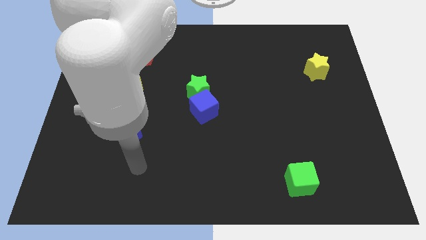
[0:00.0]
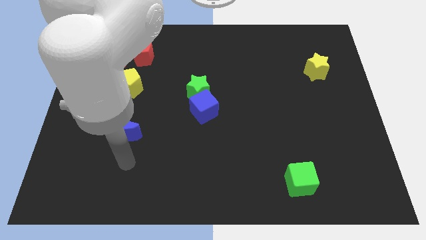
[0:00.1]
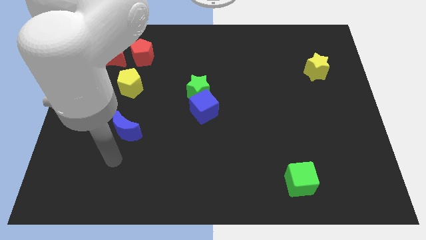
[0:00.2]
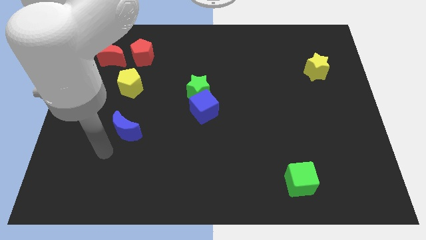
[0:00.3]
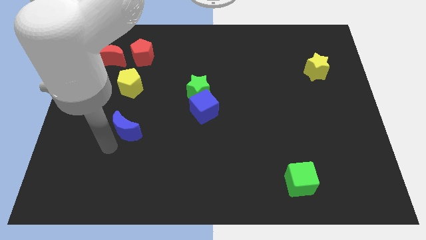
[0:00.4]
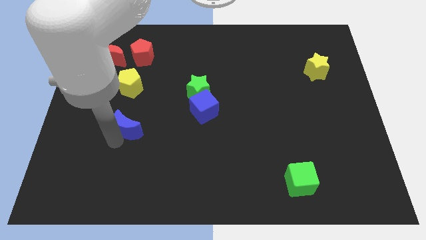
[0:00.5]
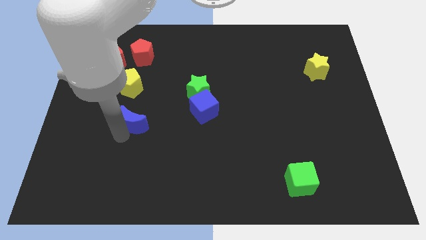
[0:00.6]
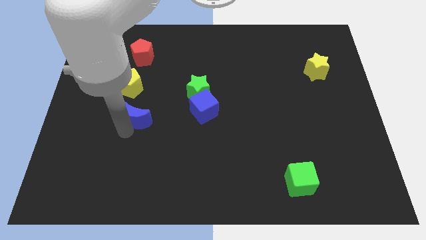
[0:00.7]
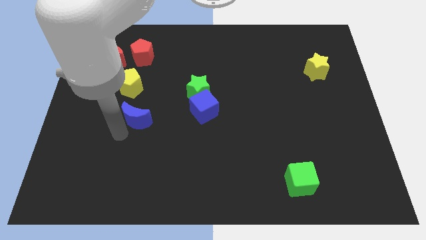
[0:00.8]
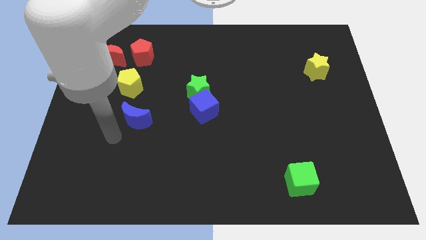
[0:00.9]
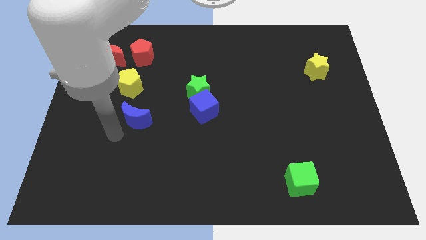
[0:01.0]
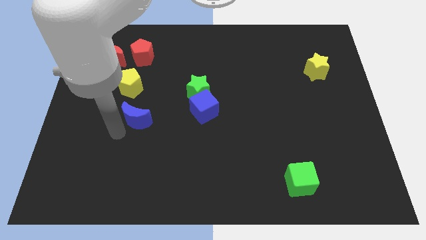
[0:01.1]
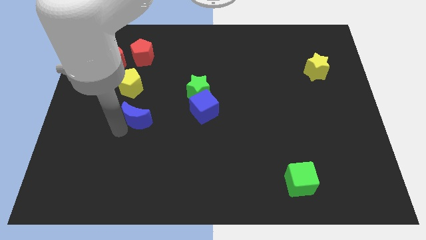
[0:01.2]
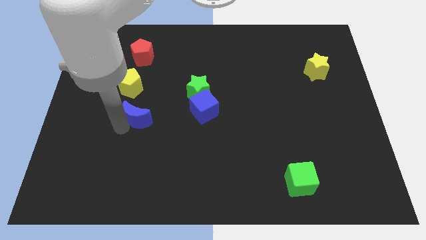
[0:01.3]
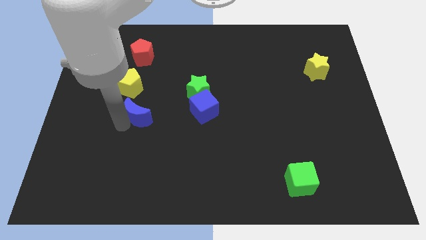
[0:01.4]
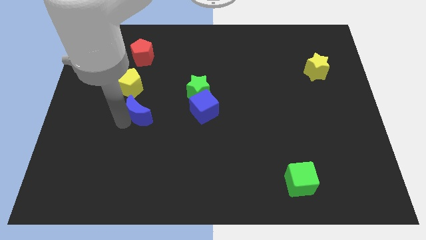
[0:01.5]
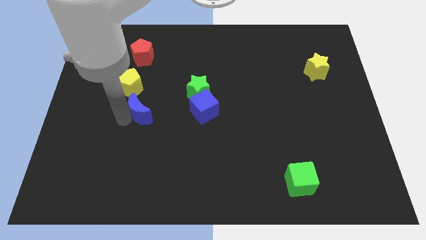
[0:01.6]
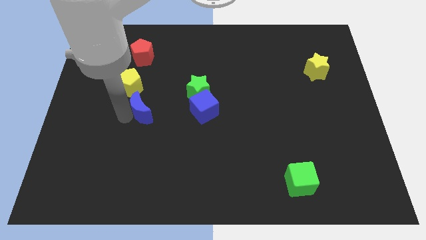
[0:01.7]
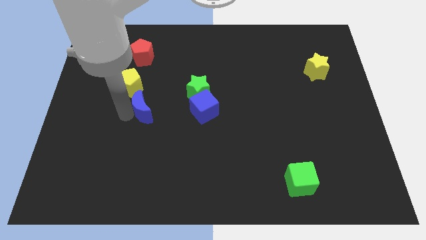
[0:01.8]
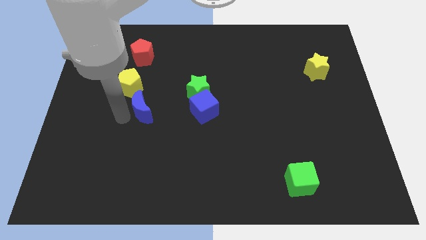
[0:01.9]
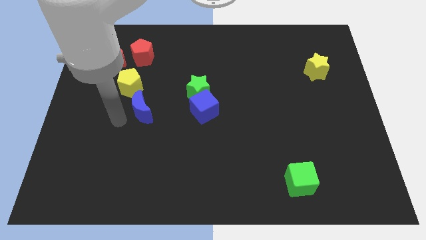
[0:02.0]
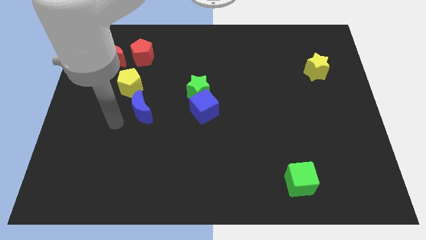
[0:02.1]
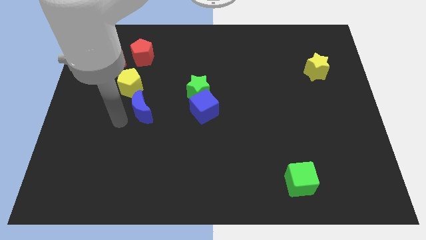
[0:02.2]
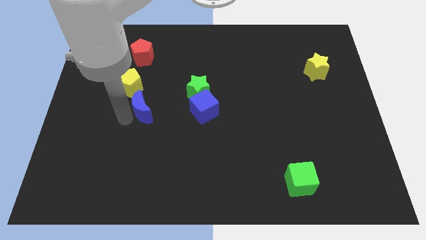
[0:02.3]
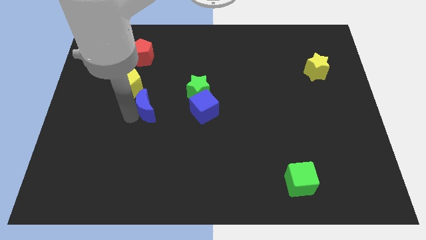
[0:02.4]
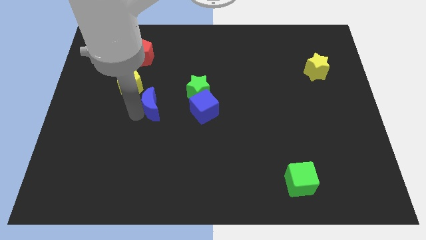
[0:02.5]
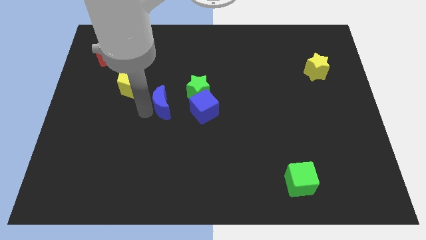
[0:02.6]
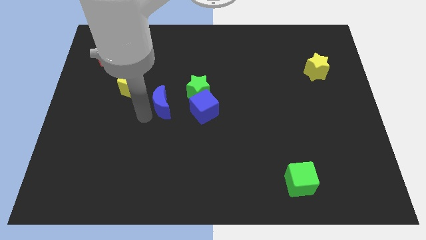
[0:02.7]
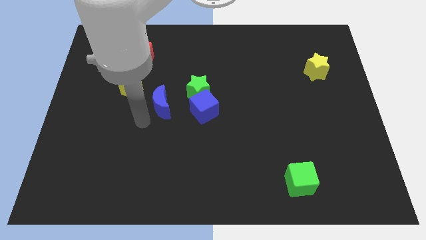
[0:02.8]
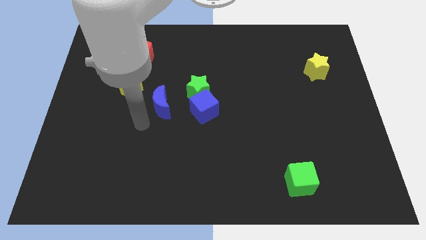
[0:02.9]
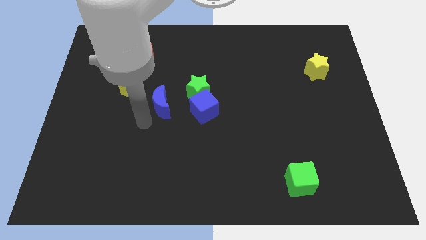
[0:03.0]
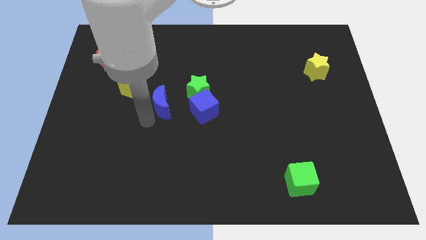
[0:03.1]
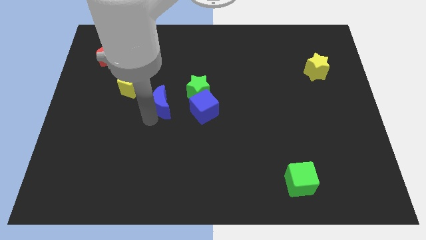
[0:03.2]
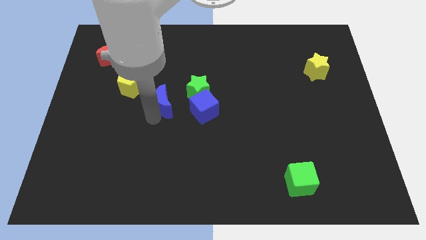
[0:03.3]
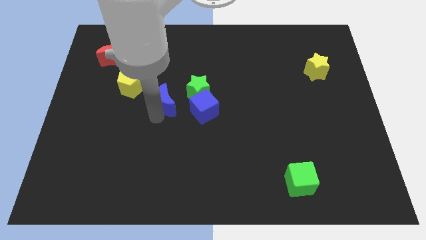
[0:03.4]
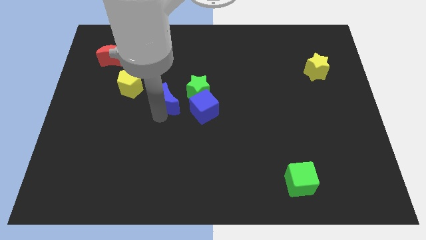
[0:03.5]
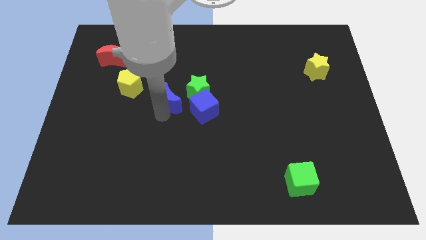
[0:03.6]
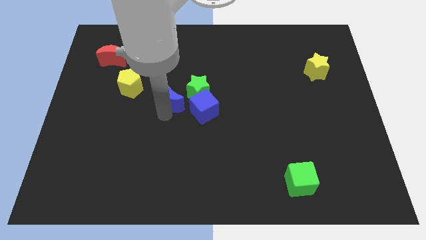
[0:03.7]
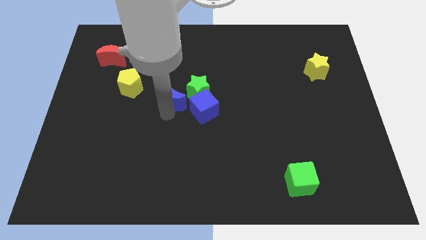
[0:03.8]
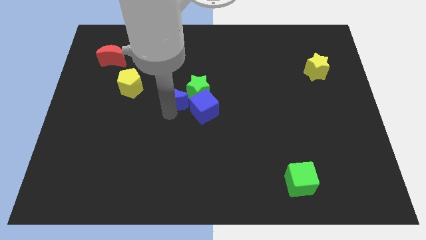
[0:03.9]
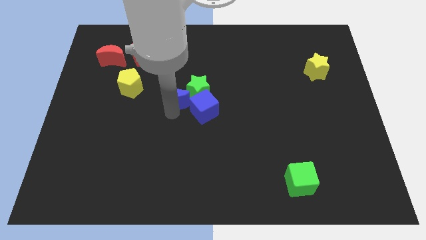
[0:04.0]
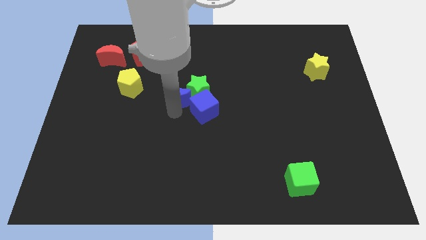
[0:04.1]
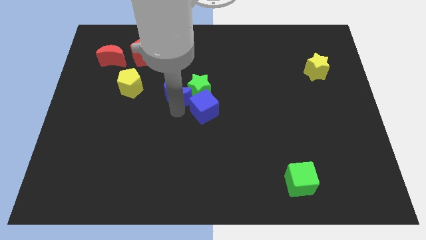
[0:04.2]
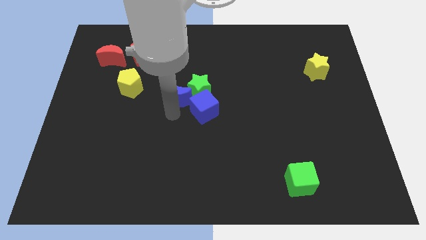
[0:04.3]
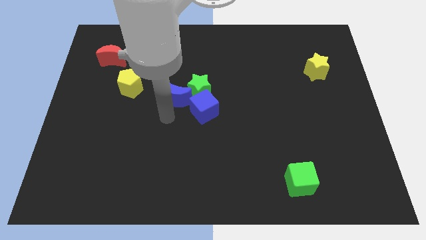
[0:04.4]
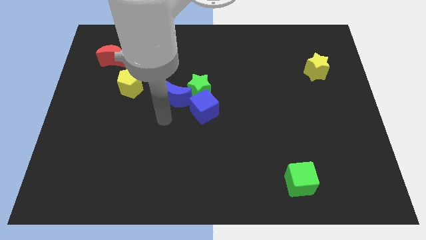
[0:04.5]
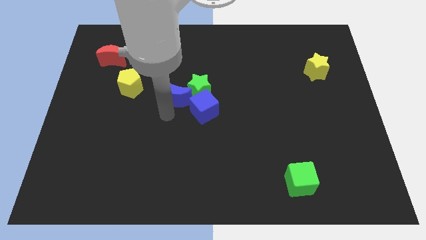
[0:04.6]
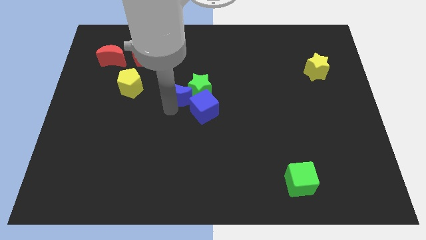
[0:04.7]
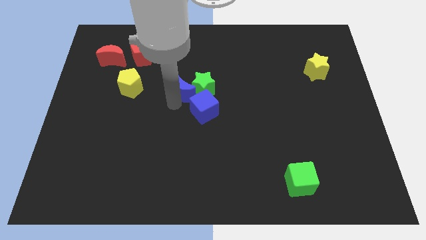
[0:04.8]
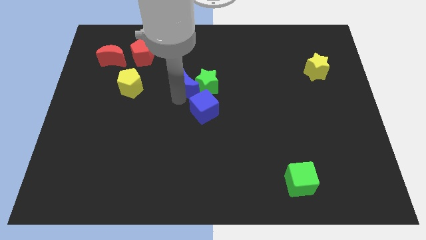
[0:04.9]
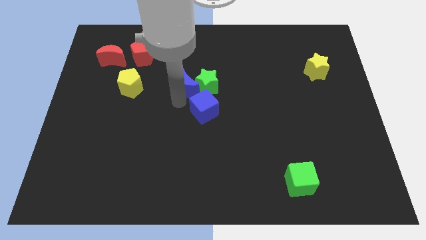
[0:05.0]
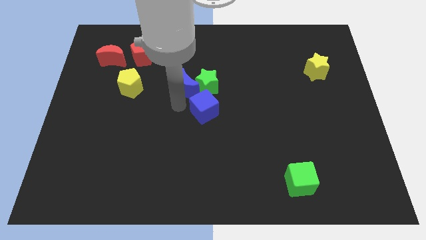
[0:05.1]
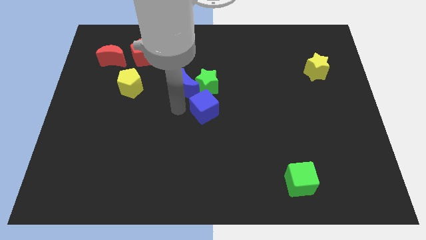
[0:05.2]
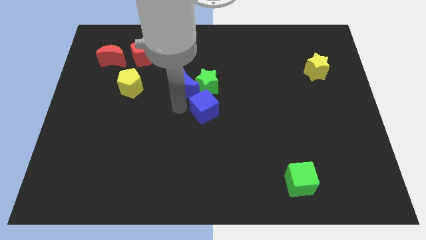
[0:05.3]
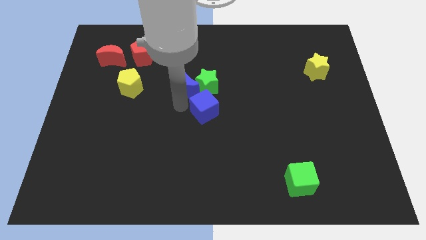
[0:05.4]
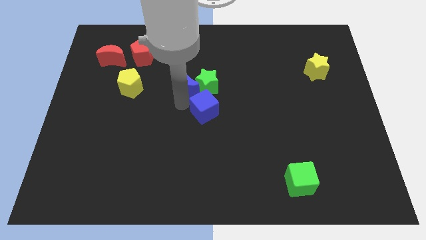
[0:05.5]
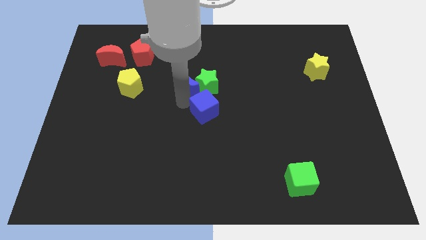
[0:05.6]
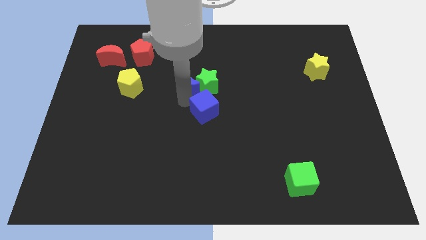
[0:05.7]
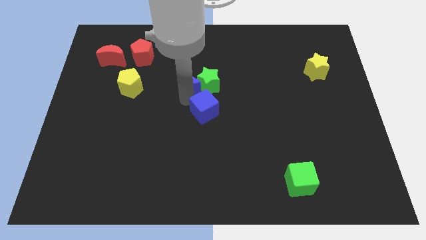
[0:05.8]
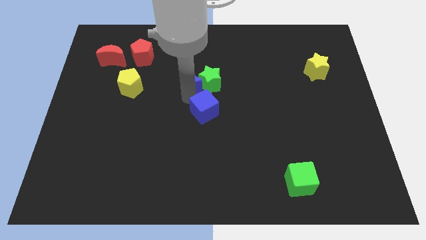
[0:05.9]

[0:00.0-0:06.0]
slide the blue moon diagonally upwards and right

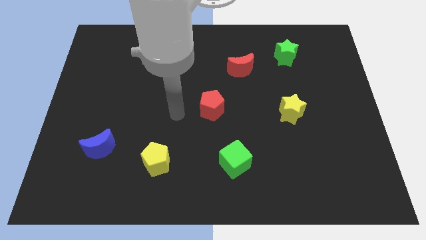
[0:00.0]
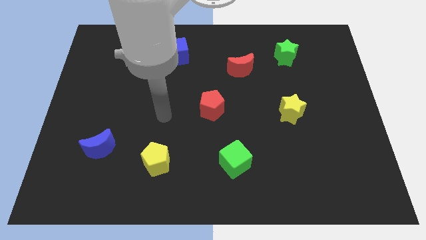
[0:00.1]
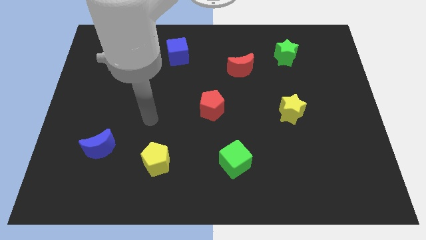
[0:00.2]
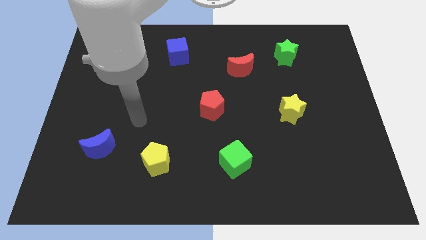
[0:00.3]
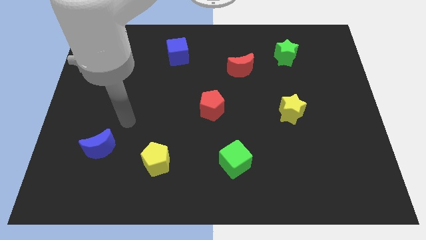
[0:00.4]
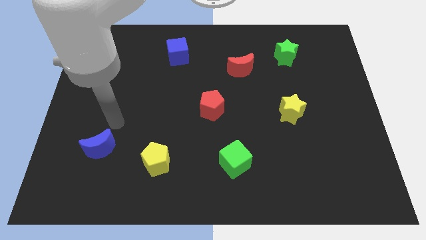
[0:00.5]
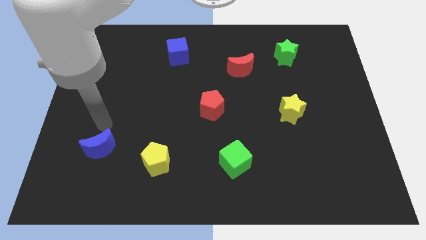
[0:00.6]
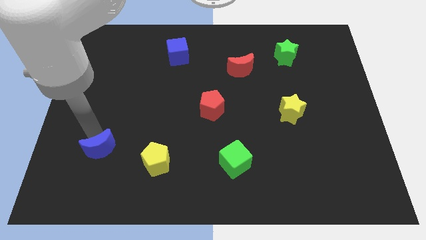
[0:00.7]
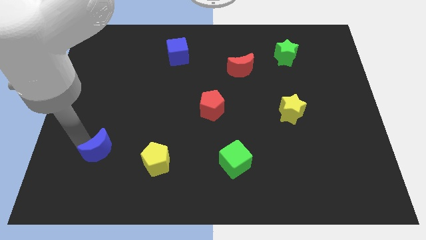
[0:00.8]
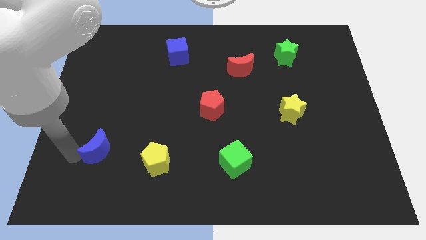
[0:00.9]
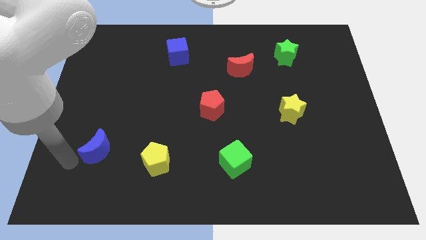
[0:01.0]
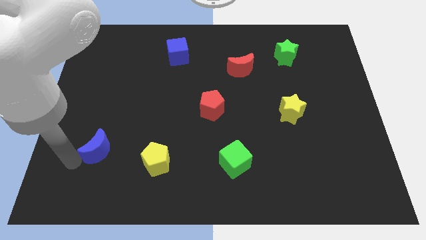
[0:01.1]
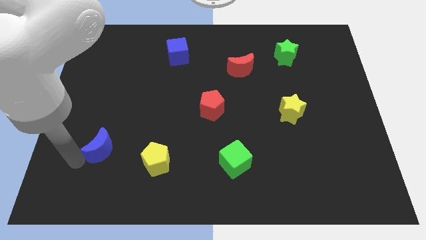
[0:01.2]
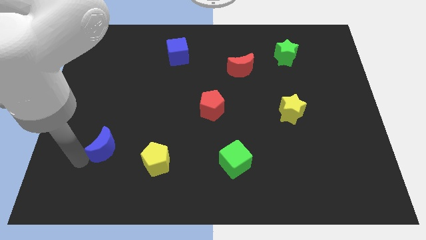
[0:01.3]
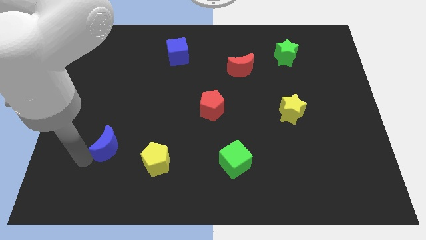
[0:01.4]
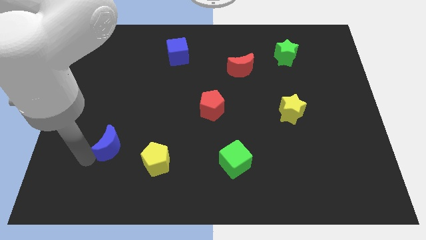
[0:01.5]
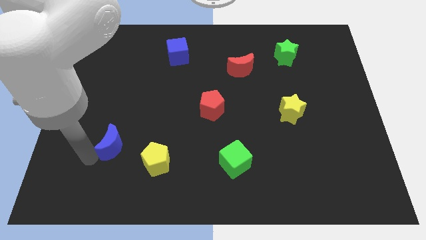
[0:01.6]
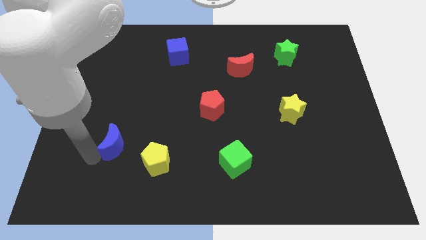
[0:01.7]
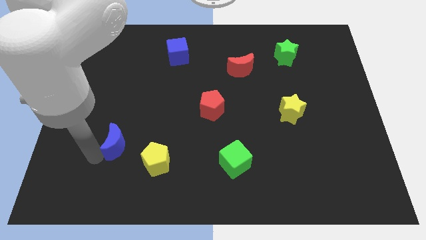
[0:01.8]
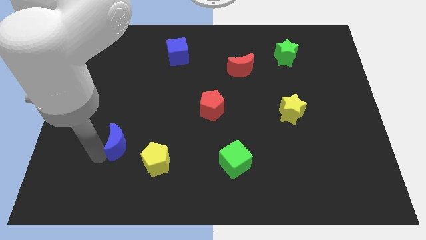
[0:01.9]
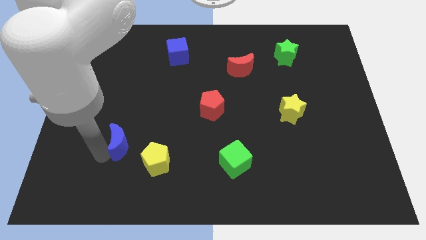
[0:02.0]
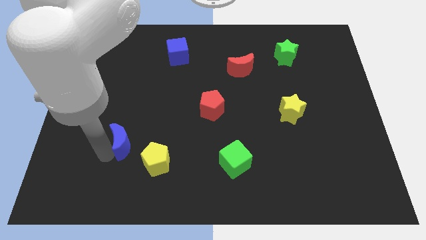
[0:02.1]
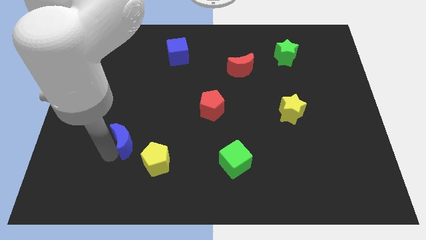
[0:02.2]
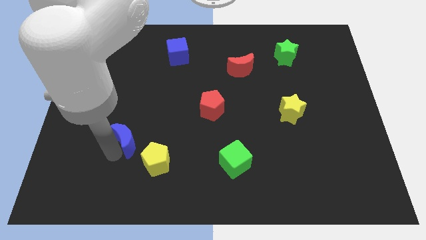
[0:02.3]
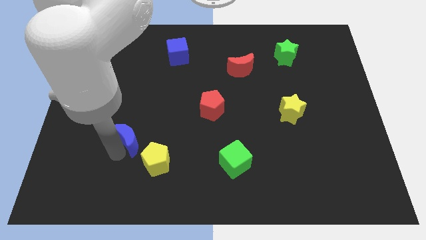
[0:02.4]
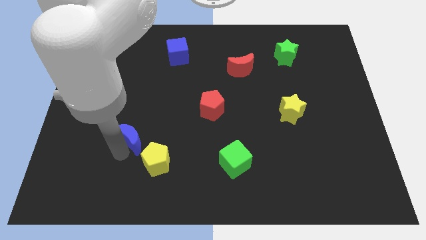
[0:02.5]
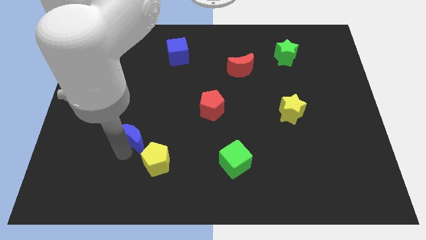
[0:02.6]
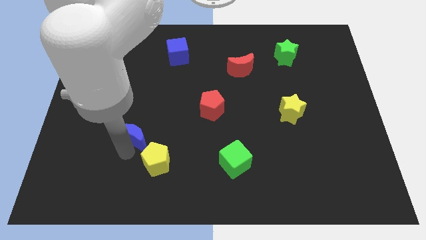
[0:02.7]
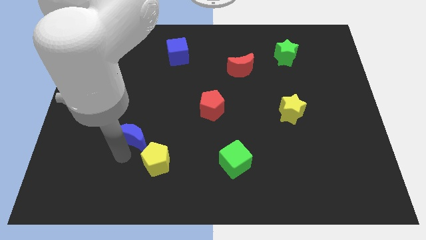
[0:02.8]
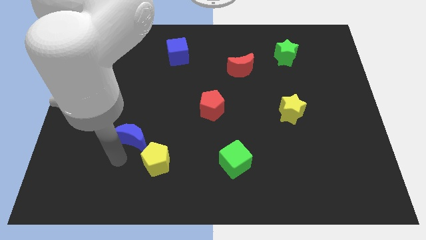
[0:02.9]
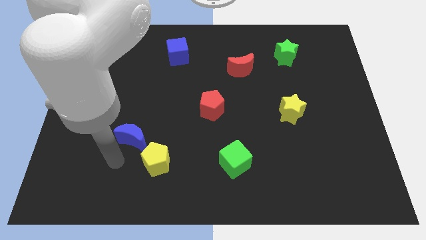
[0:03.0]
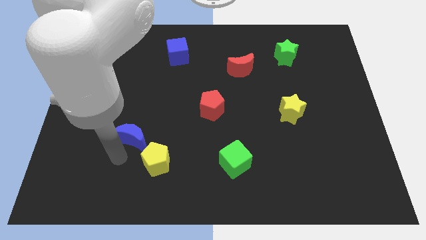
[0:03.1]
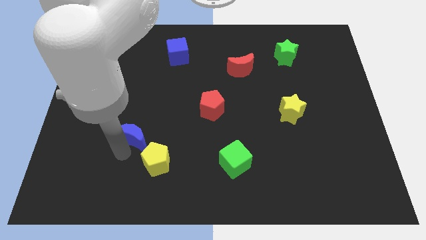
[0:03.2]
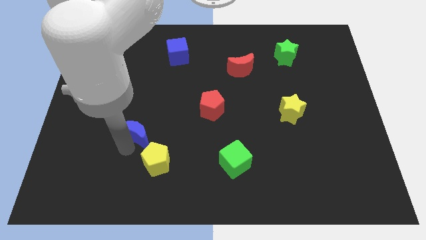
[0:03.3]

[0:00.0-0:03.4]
move the blue moon a little upwards and then to the right
